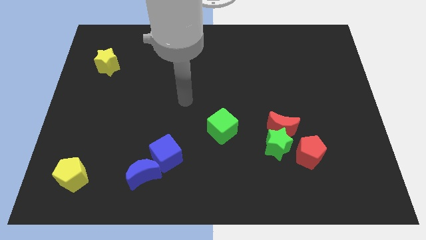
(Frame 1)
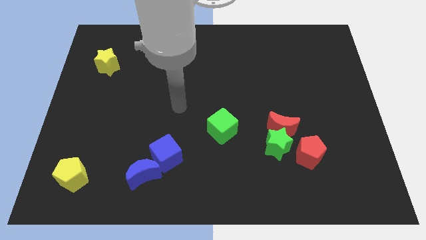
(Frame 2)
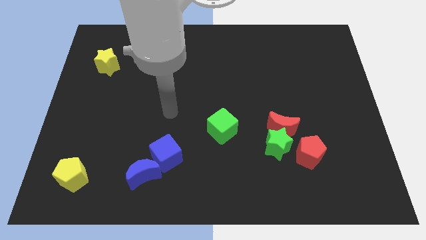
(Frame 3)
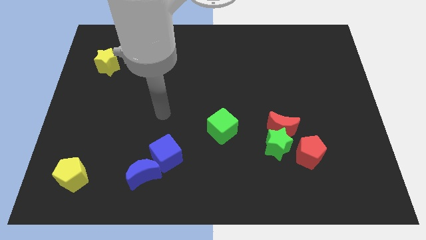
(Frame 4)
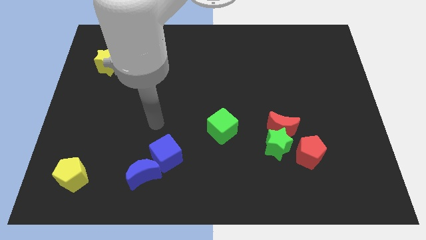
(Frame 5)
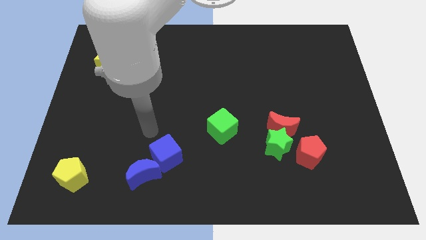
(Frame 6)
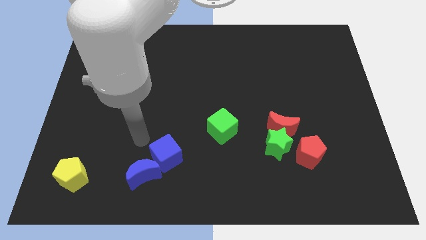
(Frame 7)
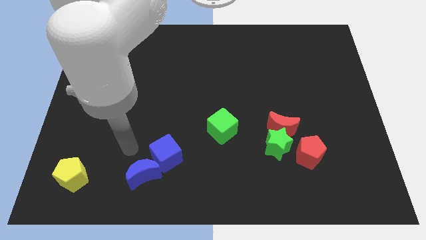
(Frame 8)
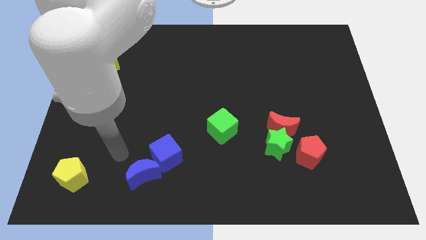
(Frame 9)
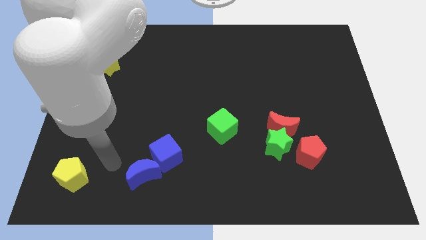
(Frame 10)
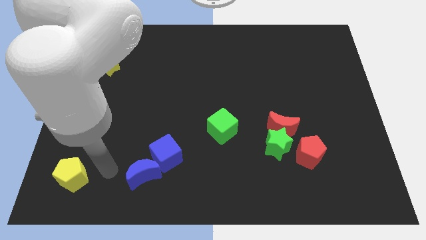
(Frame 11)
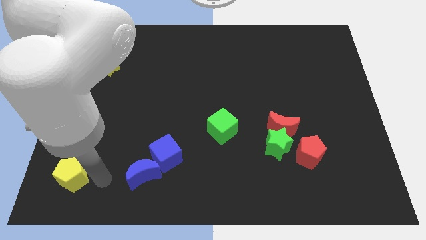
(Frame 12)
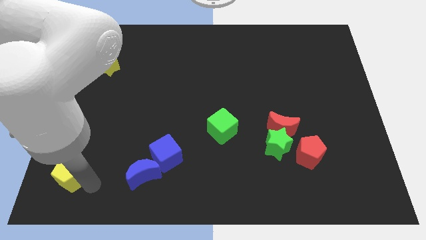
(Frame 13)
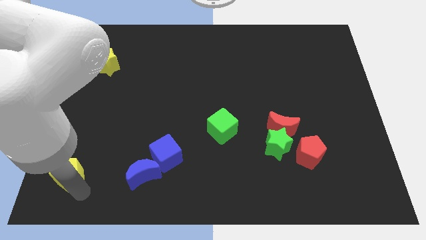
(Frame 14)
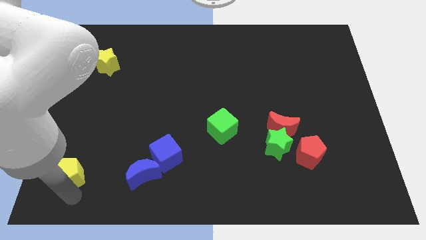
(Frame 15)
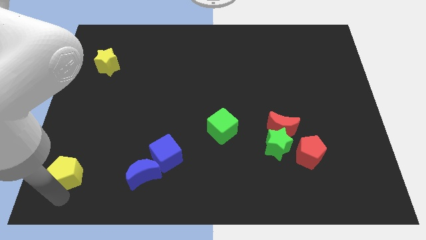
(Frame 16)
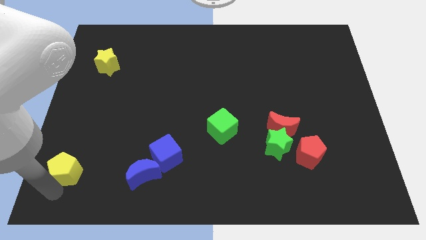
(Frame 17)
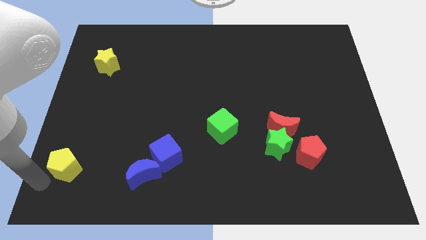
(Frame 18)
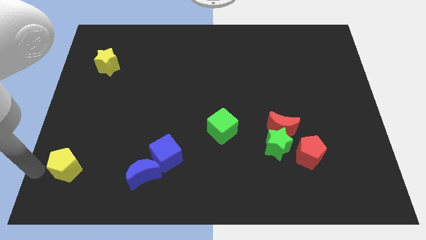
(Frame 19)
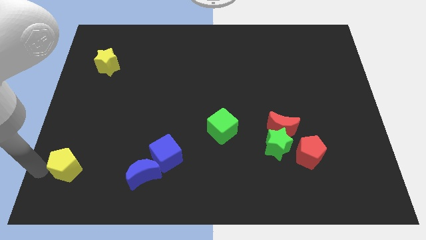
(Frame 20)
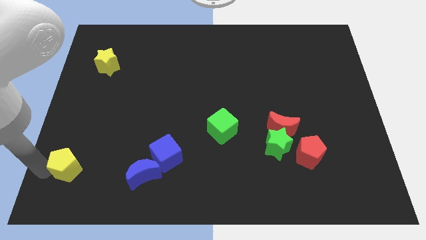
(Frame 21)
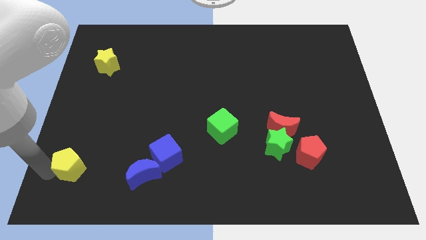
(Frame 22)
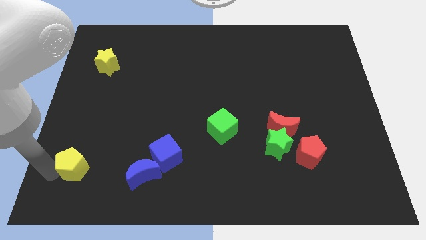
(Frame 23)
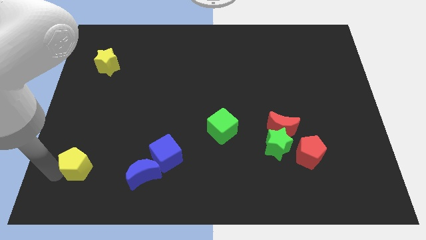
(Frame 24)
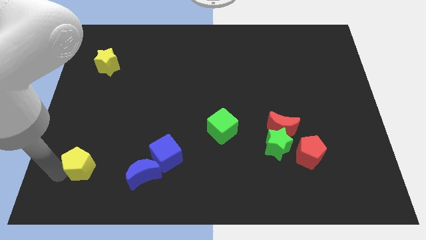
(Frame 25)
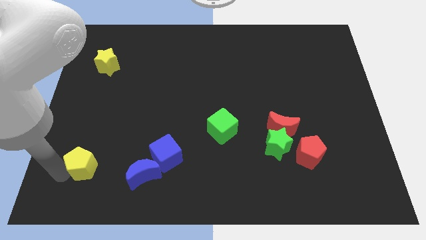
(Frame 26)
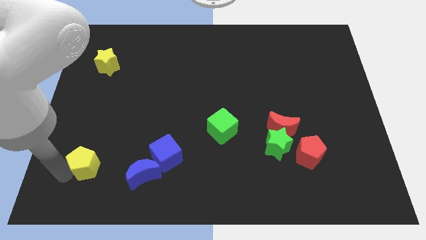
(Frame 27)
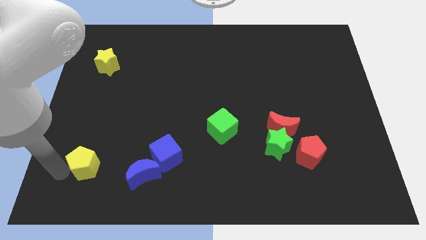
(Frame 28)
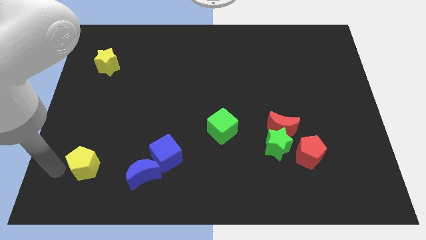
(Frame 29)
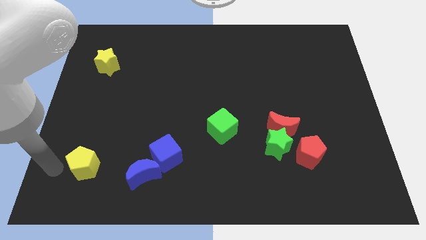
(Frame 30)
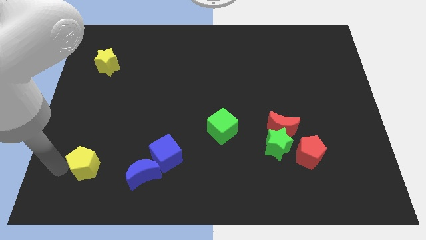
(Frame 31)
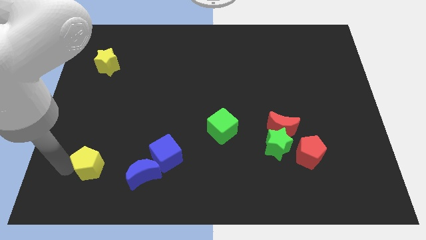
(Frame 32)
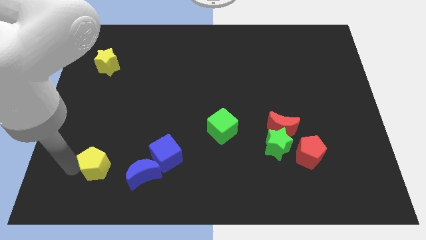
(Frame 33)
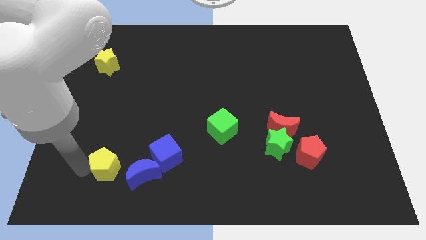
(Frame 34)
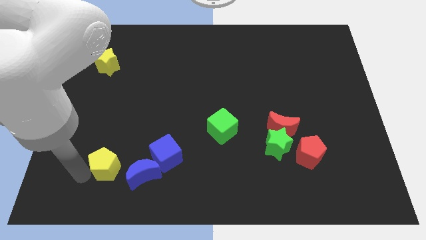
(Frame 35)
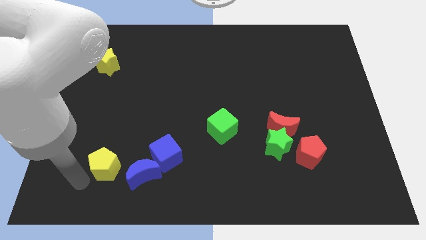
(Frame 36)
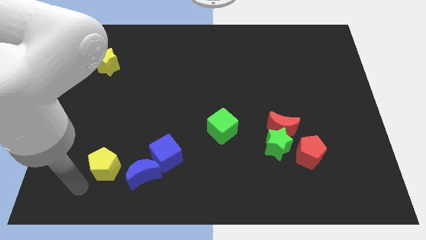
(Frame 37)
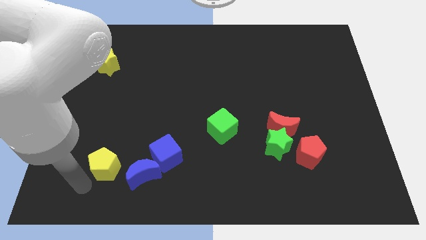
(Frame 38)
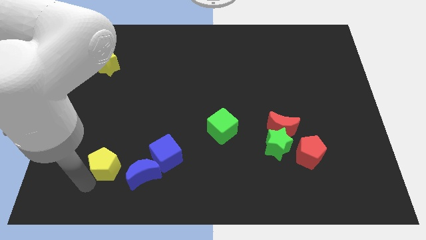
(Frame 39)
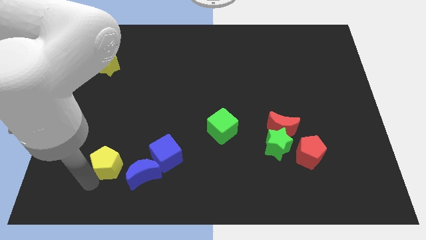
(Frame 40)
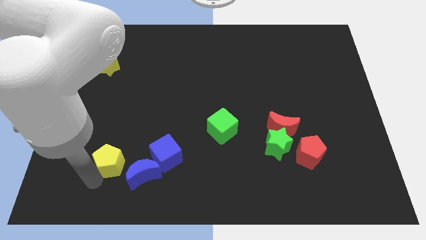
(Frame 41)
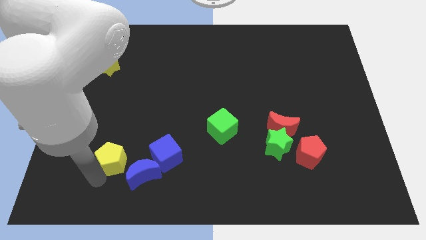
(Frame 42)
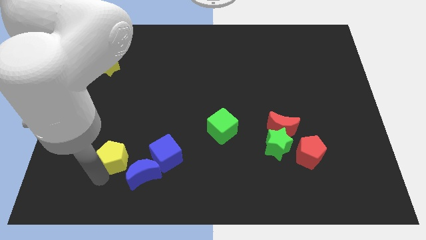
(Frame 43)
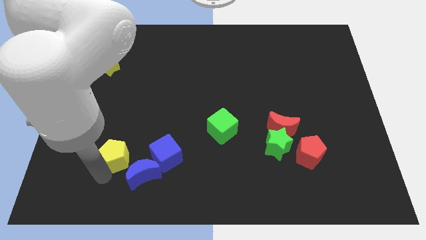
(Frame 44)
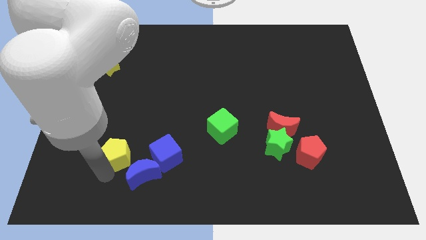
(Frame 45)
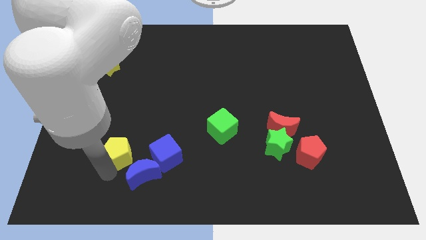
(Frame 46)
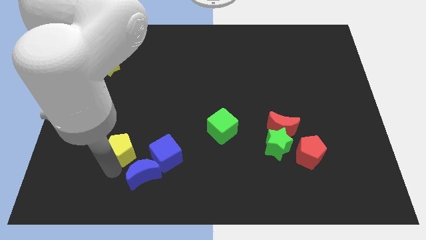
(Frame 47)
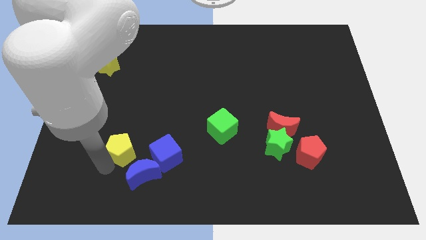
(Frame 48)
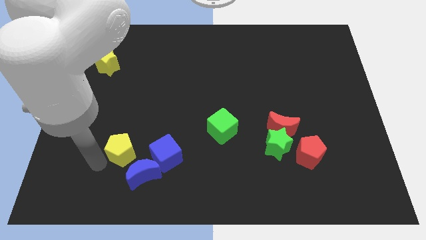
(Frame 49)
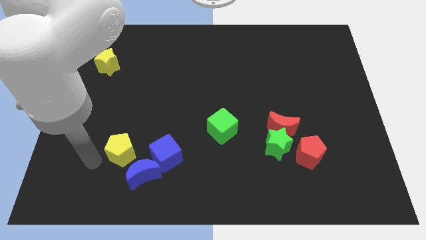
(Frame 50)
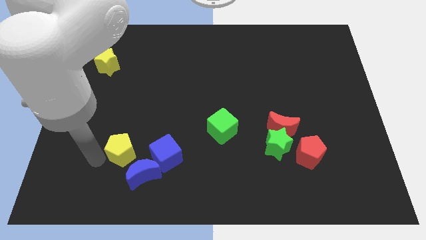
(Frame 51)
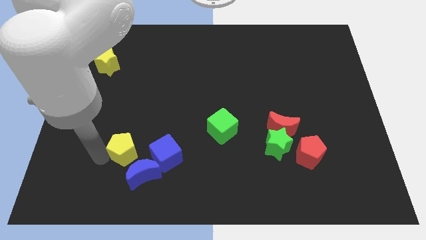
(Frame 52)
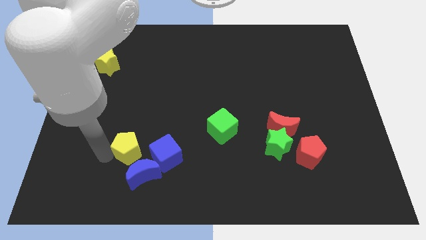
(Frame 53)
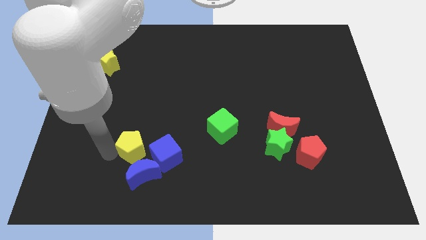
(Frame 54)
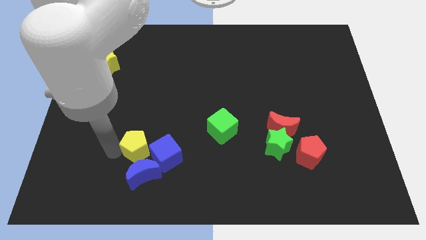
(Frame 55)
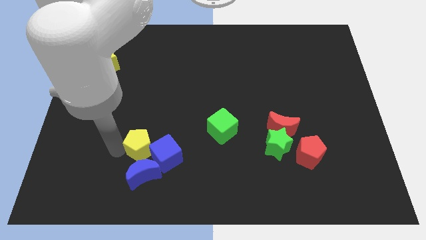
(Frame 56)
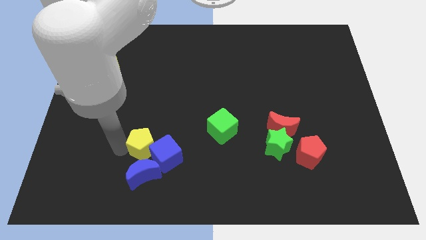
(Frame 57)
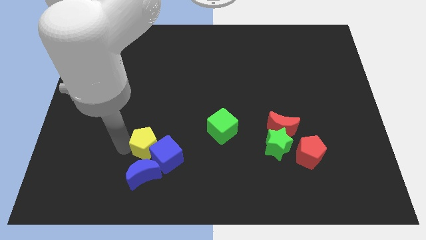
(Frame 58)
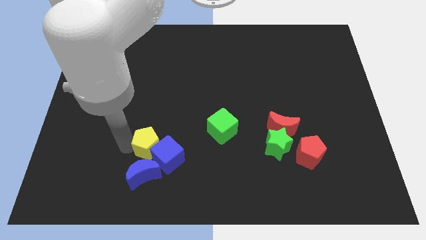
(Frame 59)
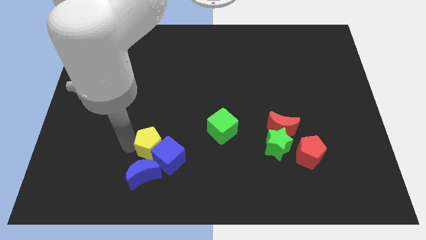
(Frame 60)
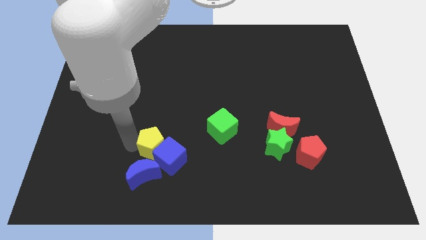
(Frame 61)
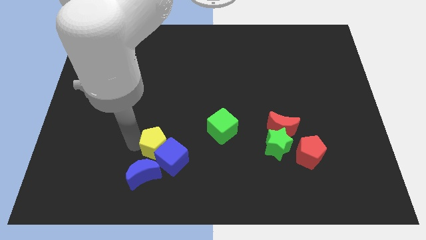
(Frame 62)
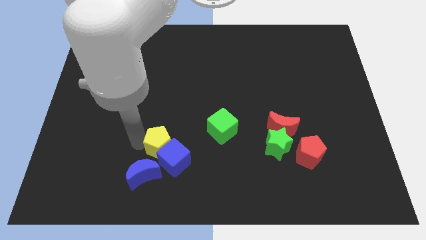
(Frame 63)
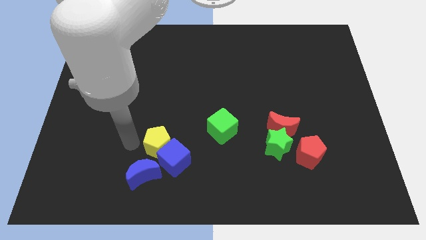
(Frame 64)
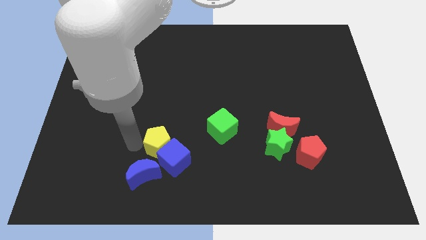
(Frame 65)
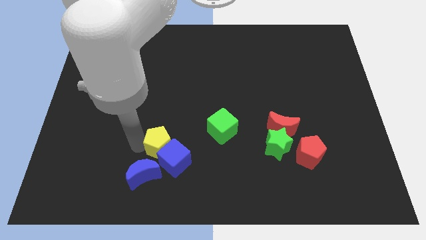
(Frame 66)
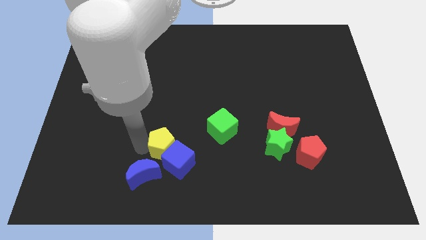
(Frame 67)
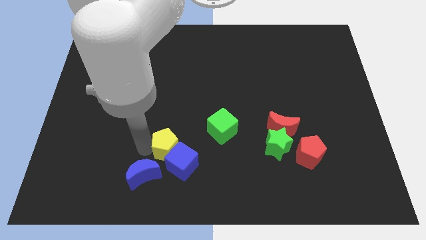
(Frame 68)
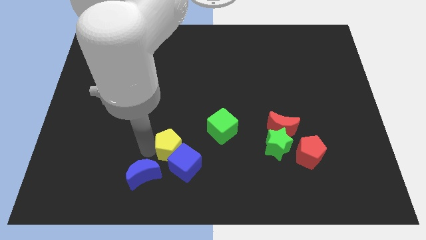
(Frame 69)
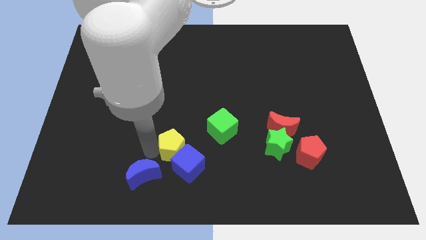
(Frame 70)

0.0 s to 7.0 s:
move the yellow pentagon to the bottom left of the green cube

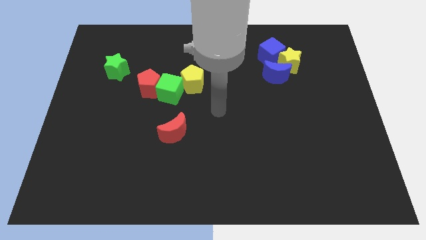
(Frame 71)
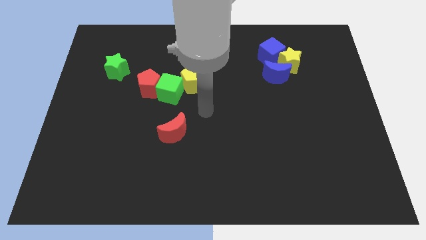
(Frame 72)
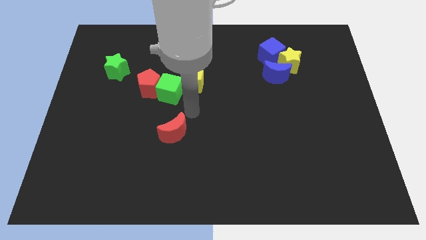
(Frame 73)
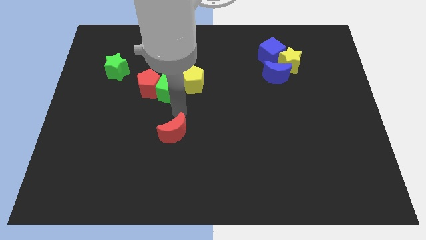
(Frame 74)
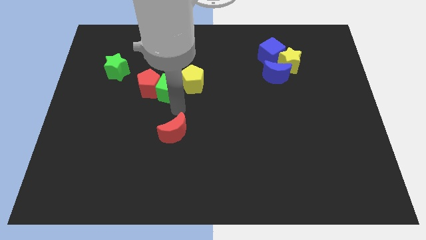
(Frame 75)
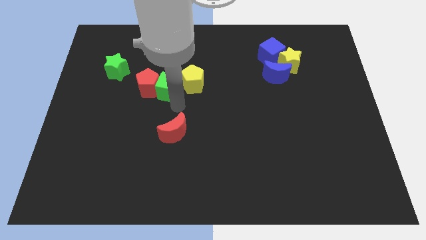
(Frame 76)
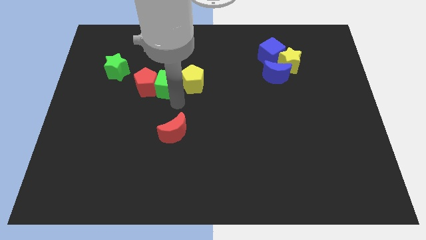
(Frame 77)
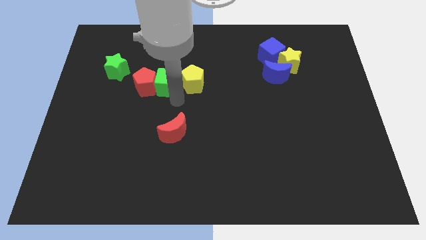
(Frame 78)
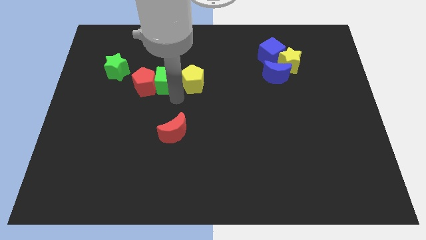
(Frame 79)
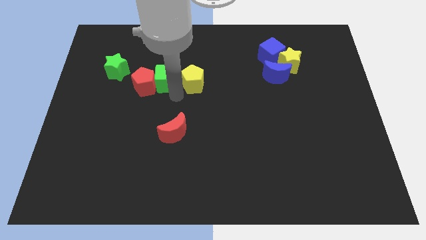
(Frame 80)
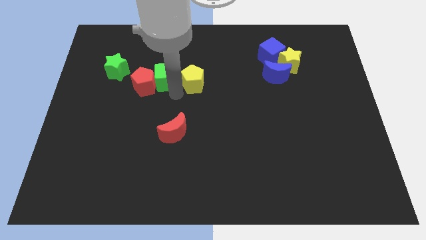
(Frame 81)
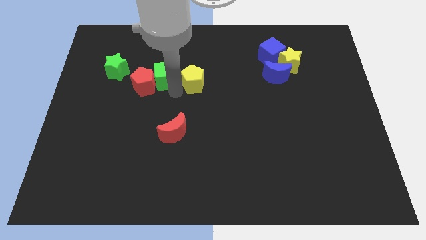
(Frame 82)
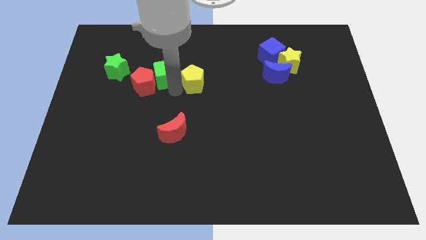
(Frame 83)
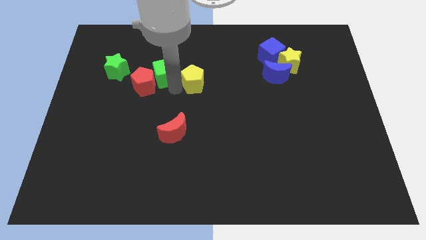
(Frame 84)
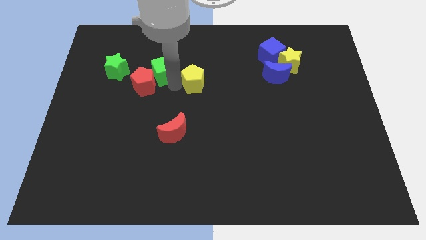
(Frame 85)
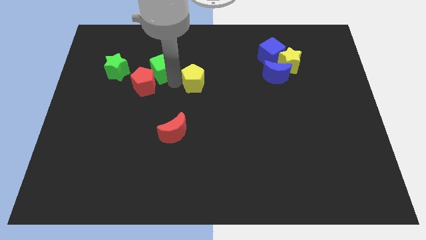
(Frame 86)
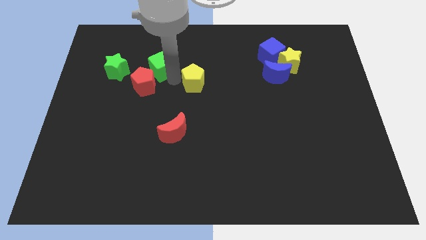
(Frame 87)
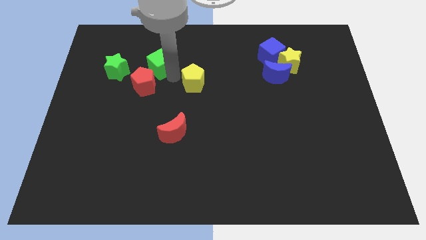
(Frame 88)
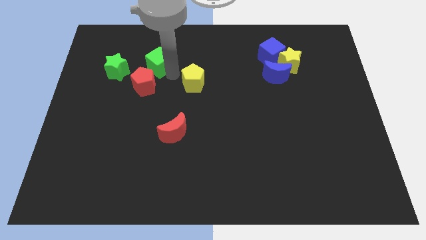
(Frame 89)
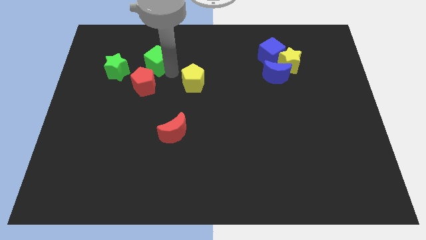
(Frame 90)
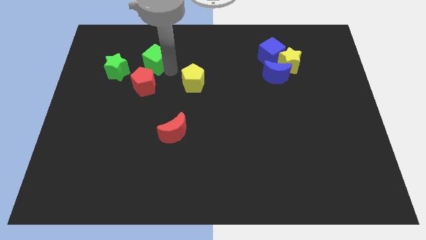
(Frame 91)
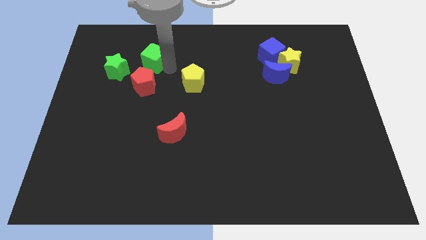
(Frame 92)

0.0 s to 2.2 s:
put the green cube to the top right of the green star
